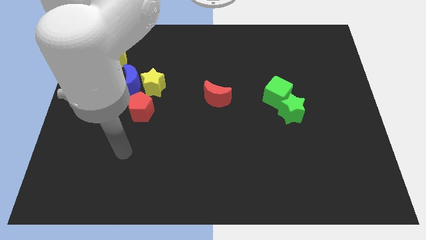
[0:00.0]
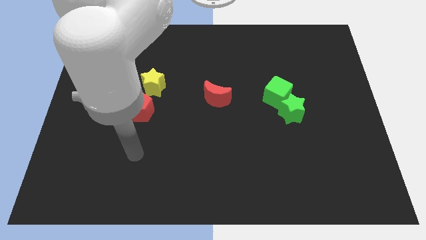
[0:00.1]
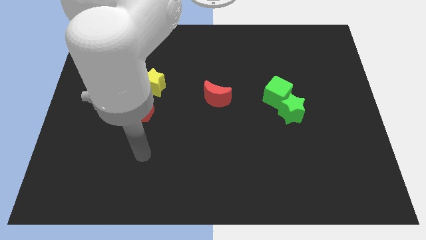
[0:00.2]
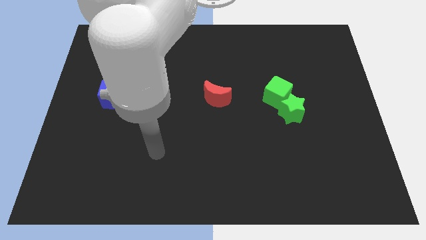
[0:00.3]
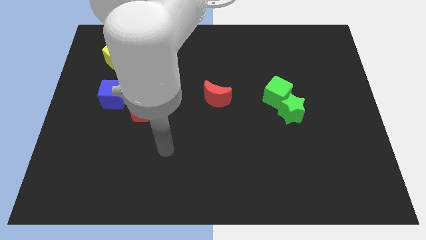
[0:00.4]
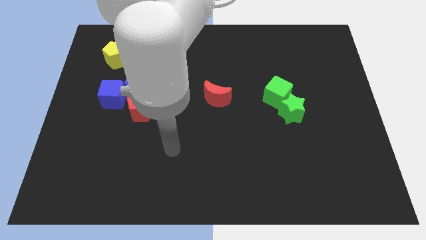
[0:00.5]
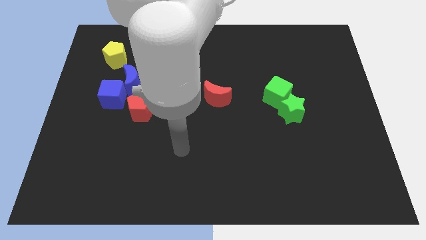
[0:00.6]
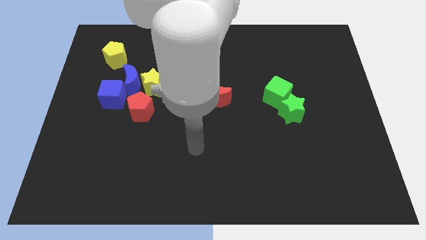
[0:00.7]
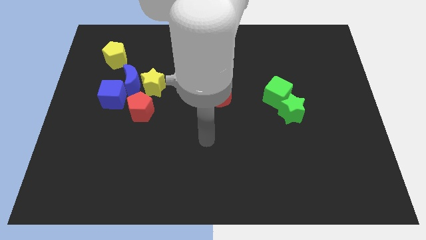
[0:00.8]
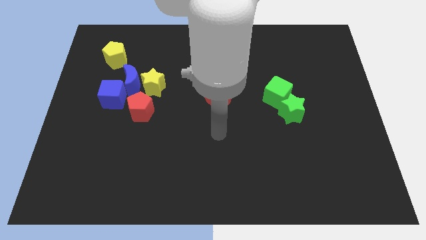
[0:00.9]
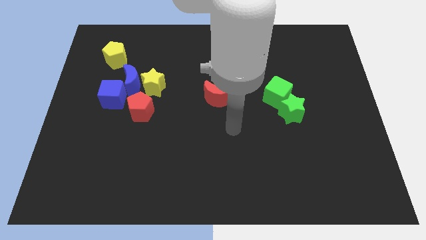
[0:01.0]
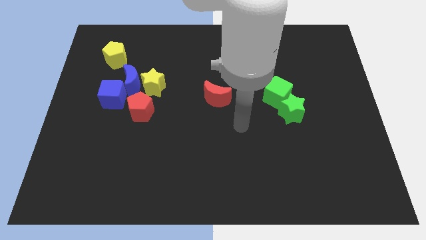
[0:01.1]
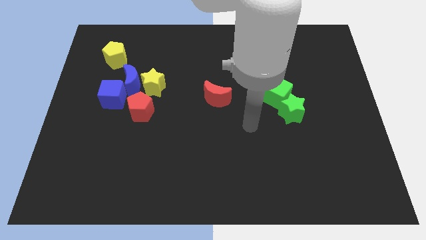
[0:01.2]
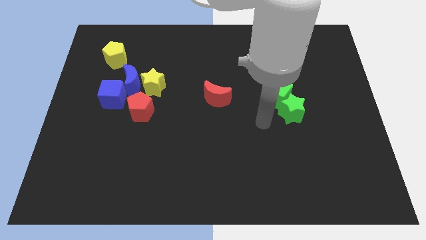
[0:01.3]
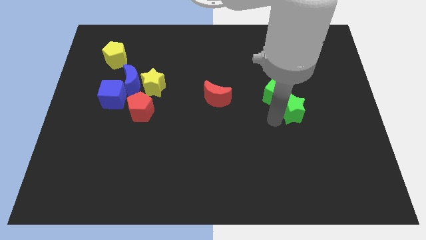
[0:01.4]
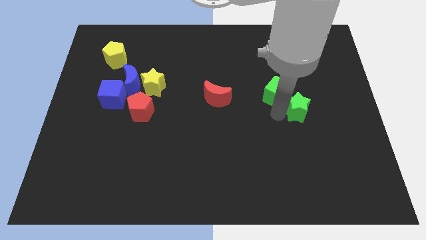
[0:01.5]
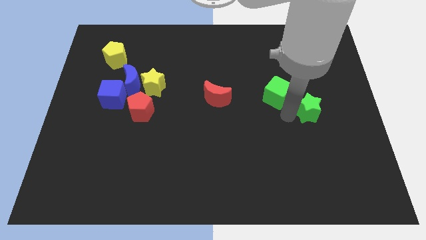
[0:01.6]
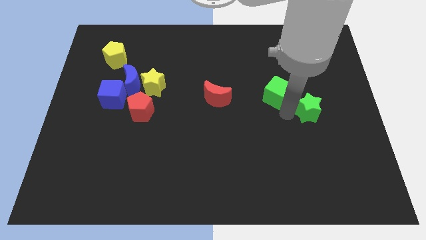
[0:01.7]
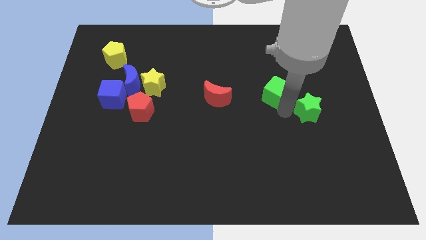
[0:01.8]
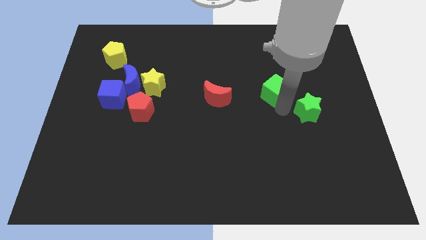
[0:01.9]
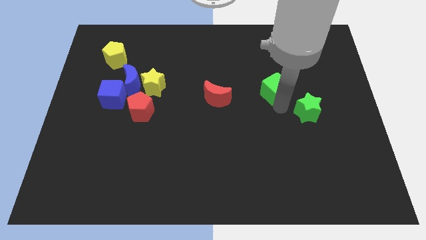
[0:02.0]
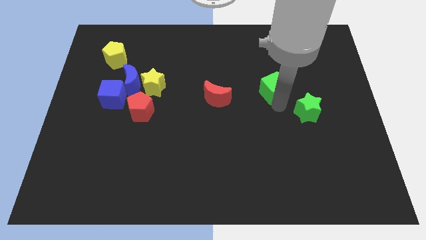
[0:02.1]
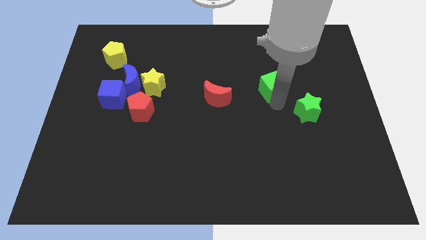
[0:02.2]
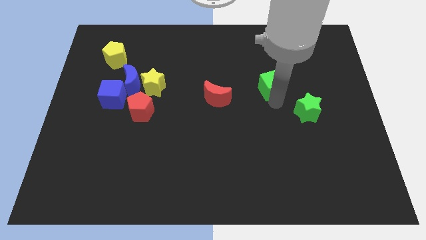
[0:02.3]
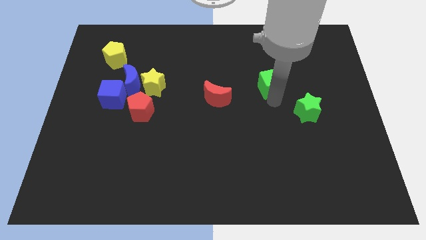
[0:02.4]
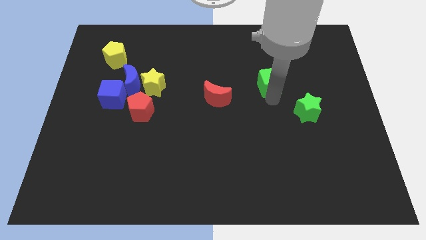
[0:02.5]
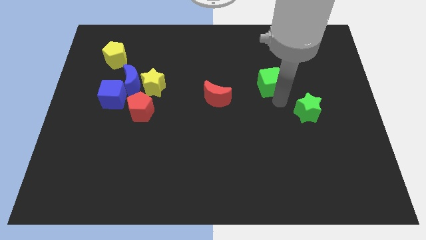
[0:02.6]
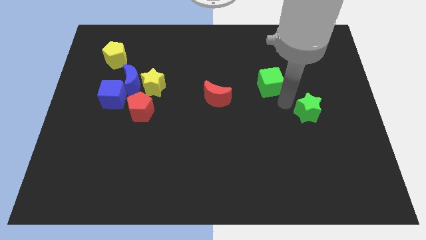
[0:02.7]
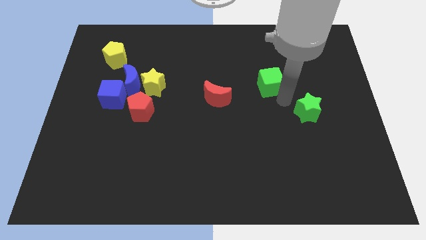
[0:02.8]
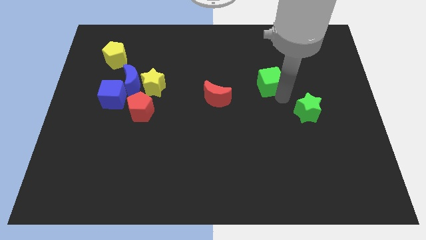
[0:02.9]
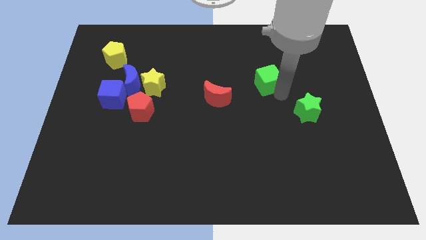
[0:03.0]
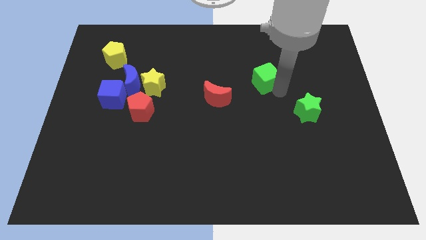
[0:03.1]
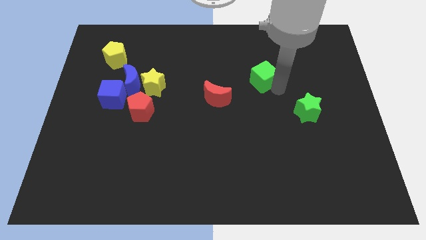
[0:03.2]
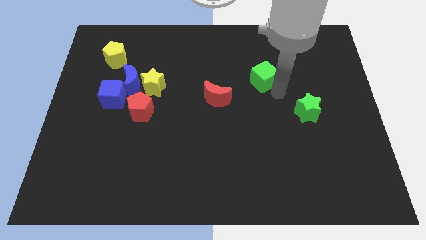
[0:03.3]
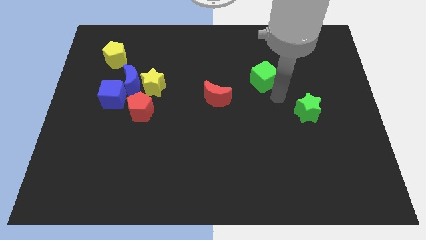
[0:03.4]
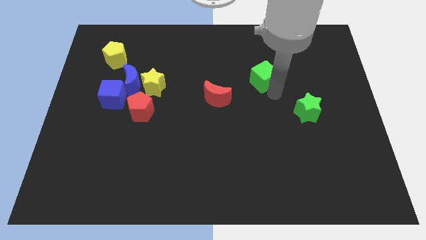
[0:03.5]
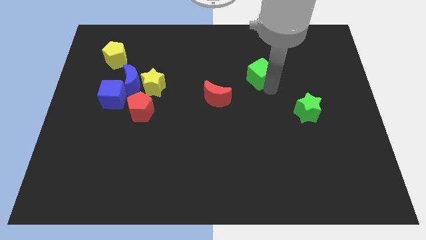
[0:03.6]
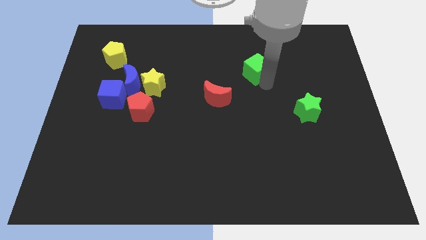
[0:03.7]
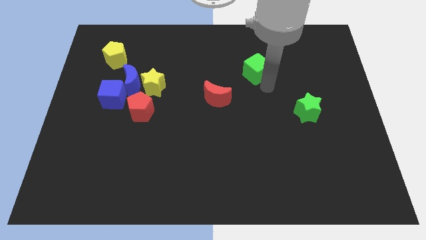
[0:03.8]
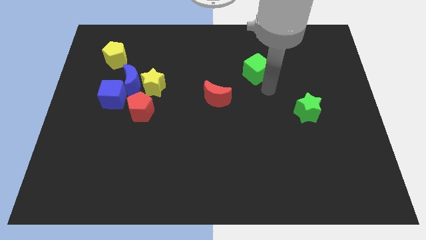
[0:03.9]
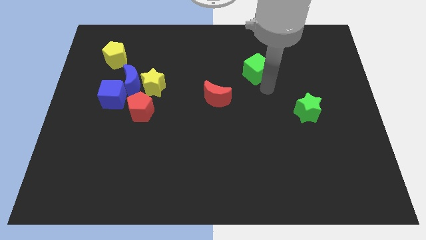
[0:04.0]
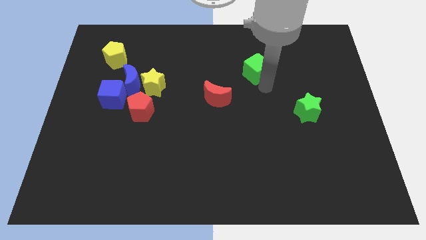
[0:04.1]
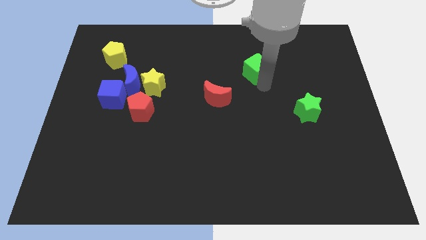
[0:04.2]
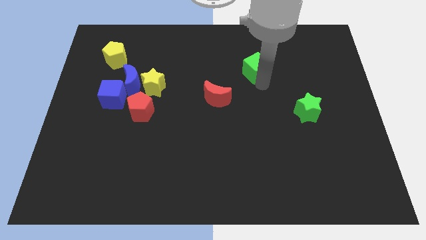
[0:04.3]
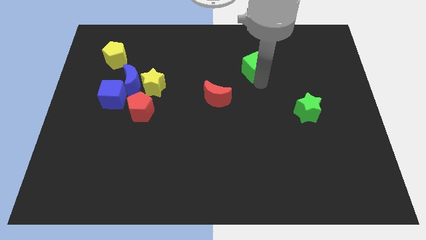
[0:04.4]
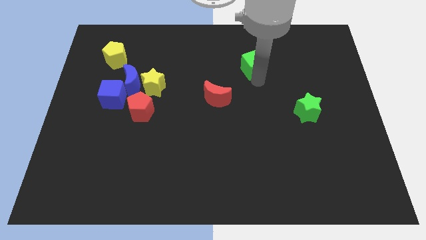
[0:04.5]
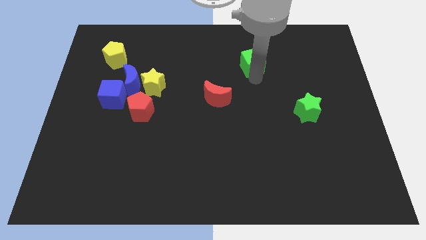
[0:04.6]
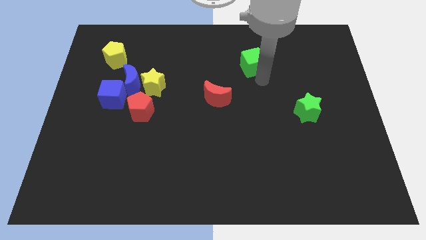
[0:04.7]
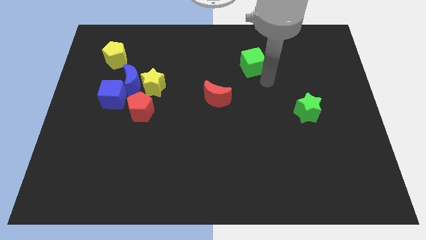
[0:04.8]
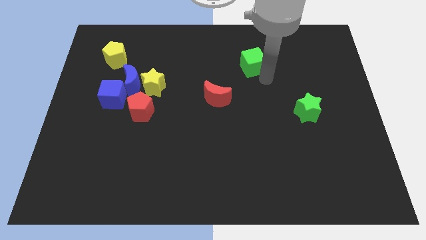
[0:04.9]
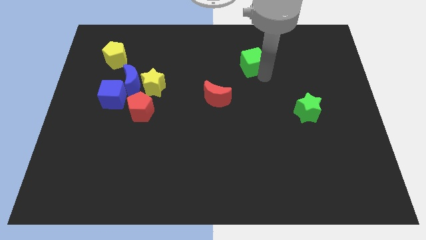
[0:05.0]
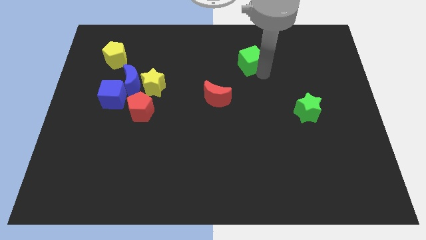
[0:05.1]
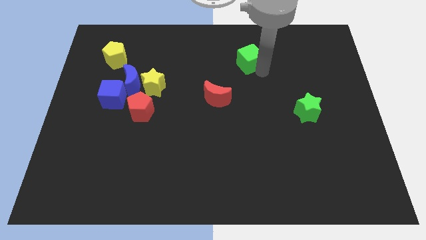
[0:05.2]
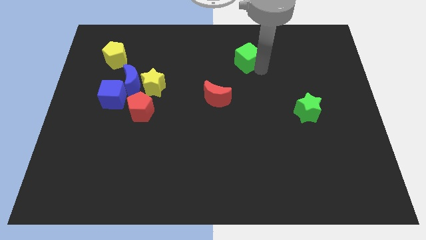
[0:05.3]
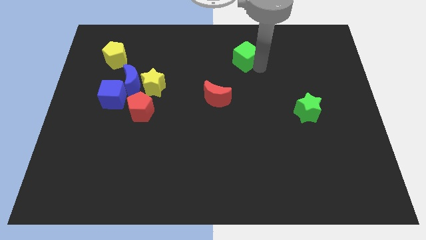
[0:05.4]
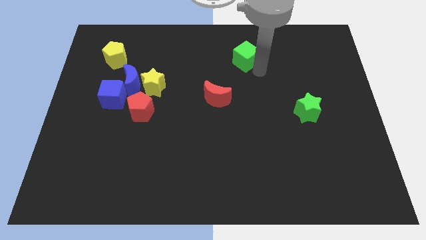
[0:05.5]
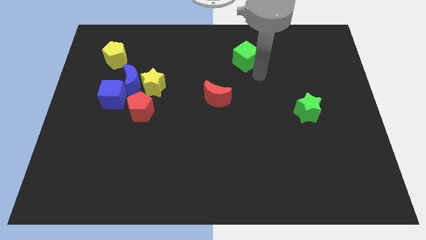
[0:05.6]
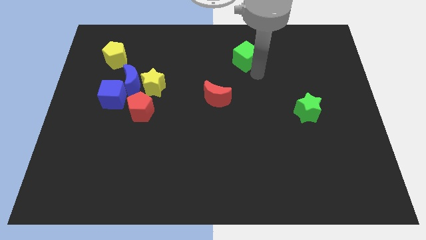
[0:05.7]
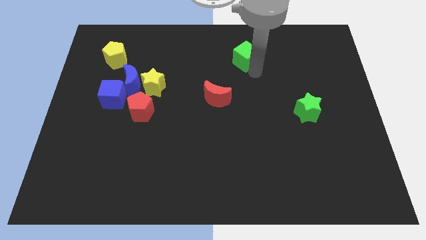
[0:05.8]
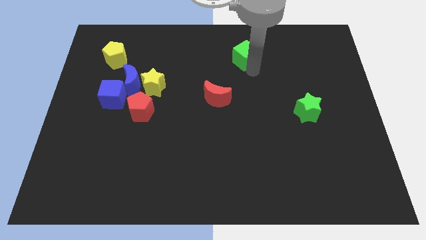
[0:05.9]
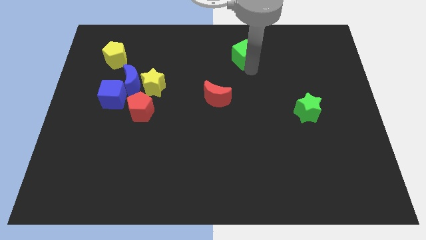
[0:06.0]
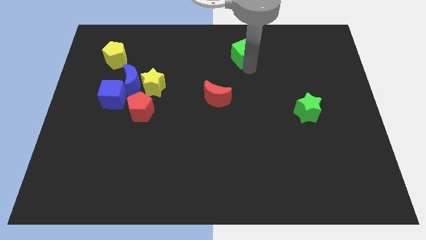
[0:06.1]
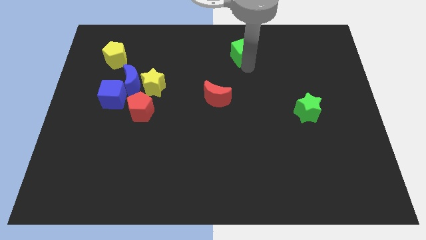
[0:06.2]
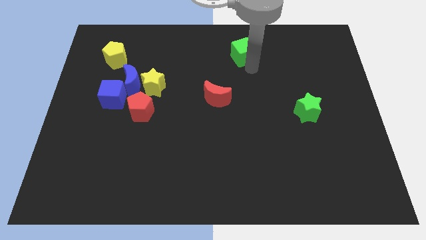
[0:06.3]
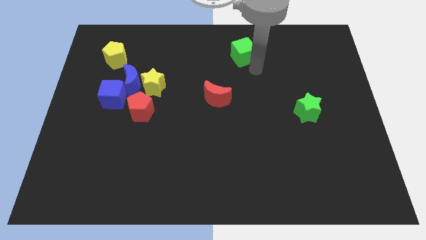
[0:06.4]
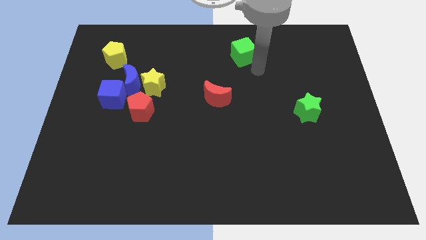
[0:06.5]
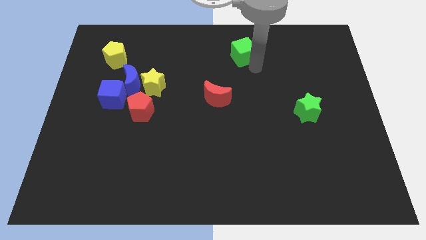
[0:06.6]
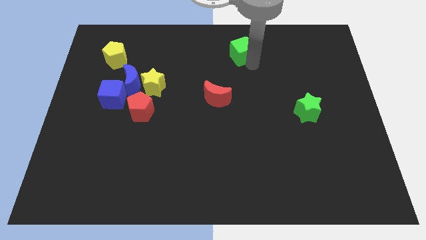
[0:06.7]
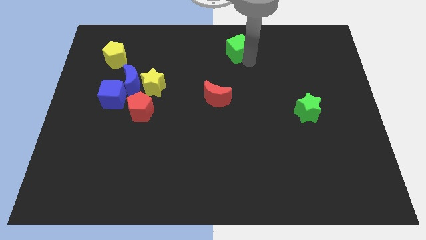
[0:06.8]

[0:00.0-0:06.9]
push the green cube to the top
